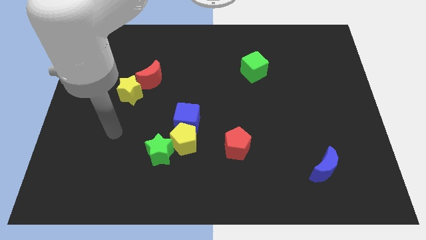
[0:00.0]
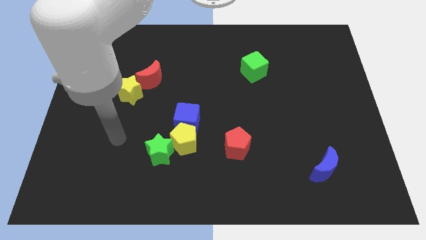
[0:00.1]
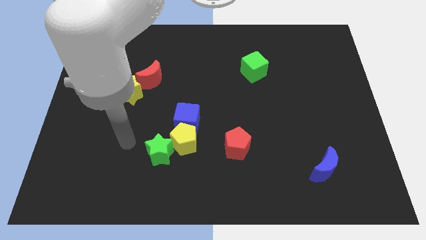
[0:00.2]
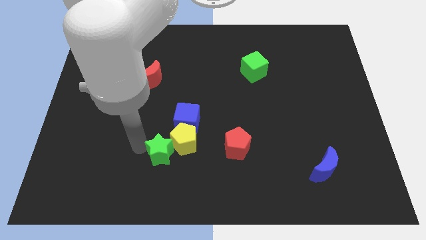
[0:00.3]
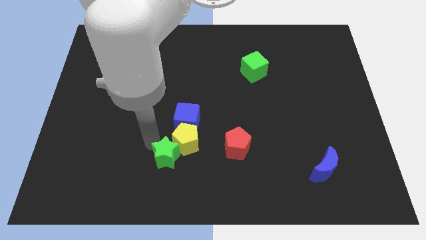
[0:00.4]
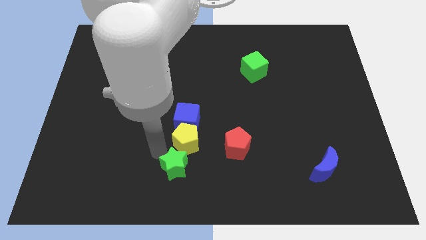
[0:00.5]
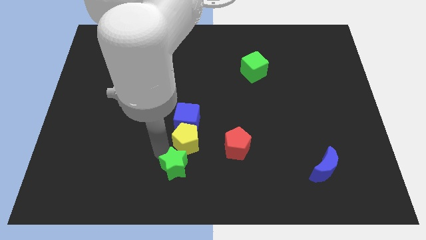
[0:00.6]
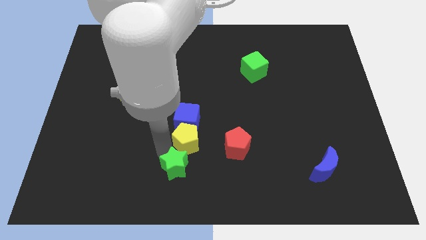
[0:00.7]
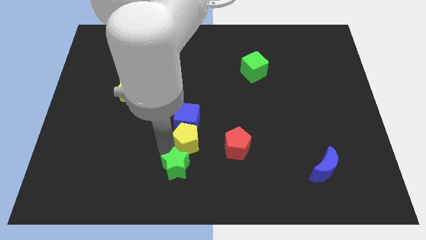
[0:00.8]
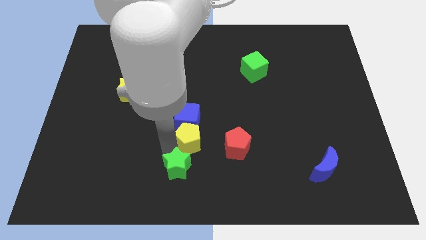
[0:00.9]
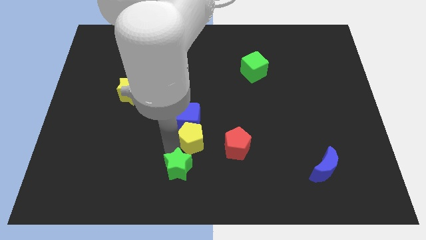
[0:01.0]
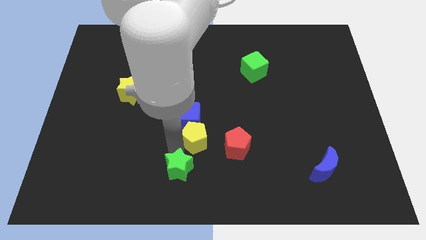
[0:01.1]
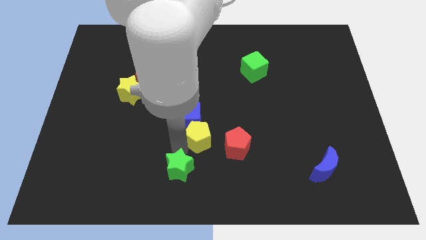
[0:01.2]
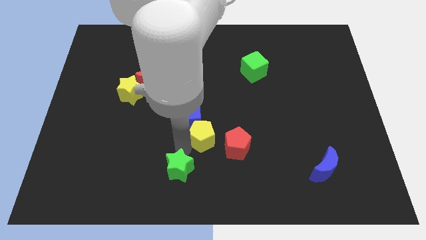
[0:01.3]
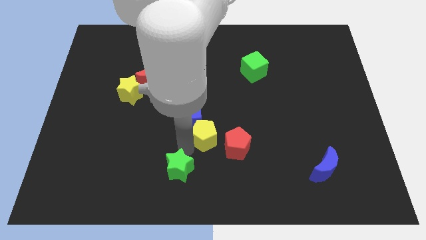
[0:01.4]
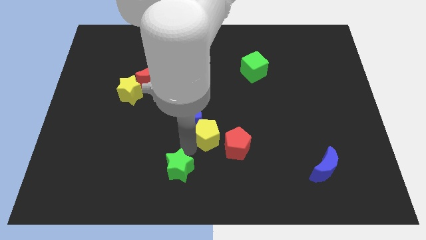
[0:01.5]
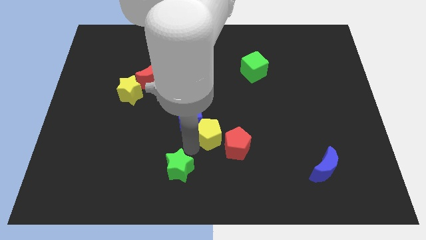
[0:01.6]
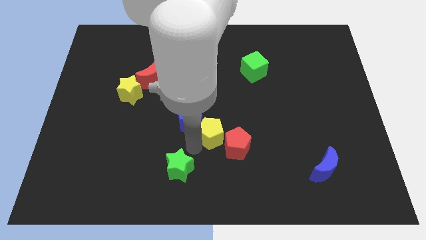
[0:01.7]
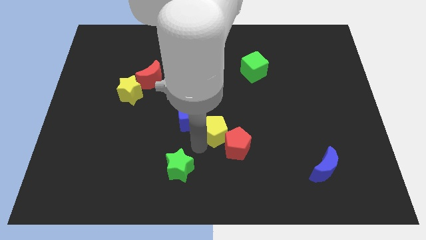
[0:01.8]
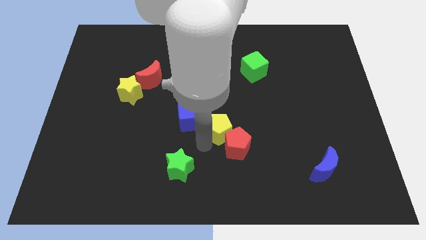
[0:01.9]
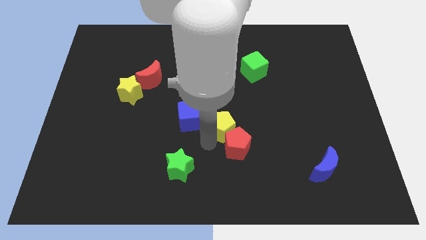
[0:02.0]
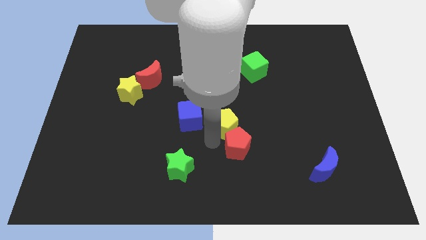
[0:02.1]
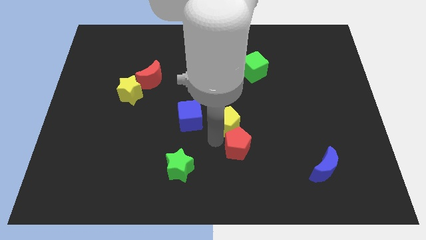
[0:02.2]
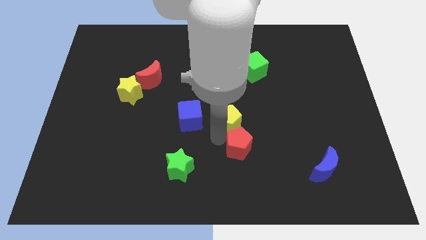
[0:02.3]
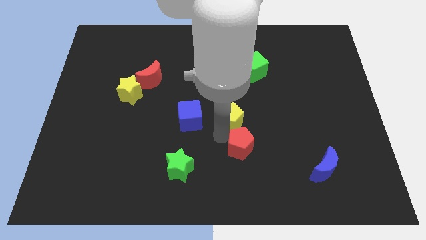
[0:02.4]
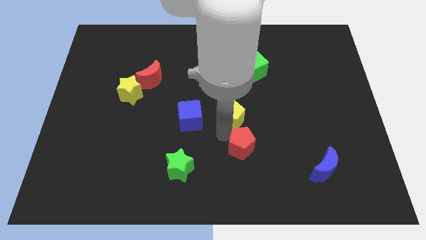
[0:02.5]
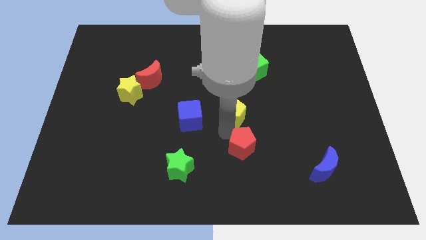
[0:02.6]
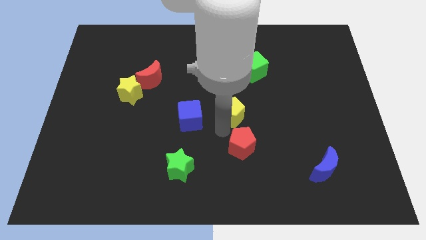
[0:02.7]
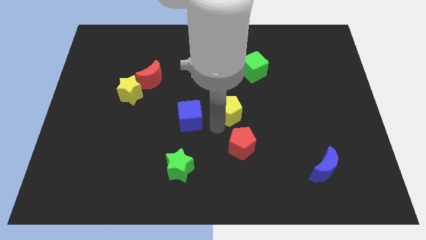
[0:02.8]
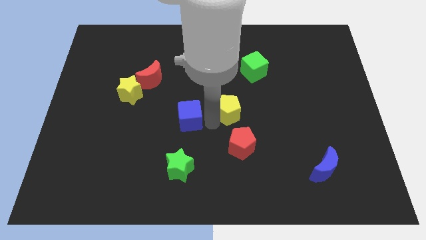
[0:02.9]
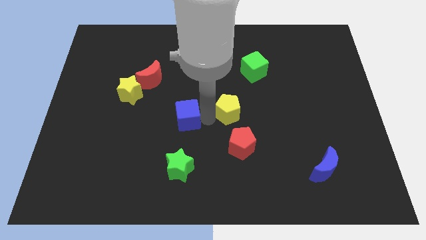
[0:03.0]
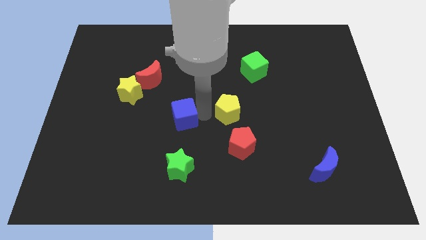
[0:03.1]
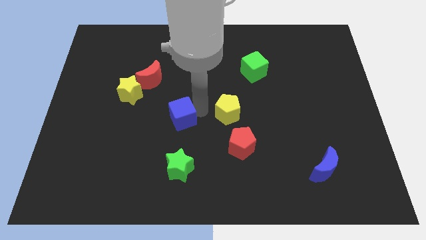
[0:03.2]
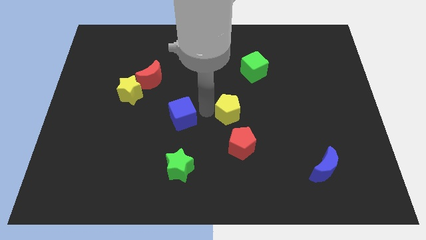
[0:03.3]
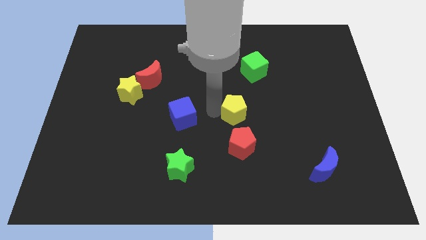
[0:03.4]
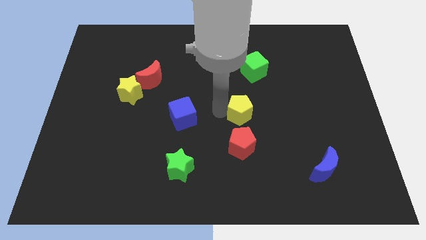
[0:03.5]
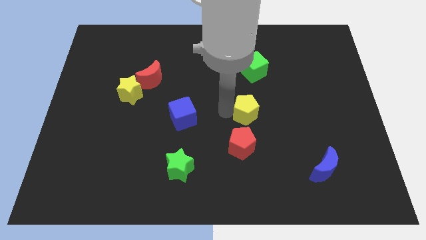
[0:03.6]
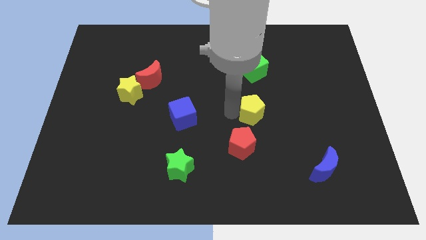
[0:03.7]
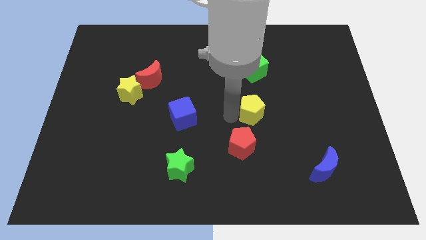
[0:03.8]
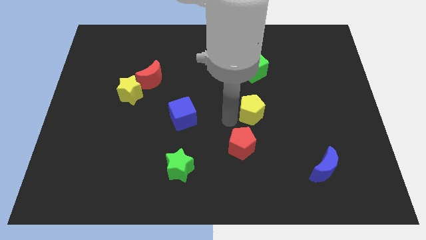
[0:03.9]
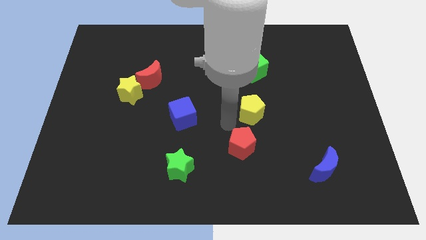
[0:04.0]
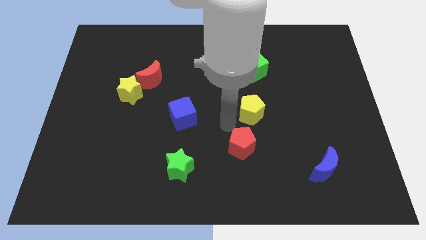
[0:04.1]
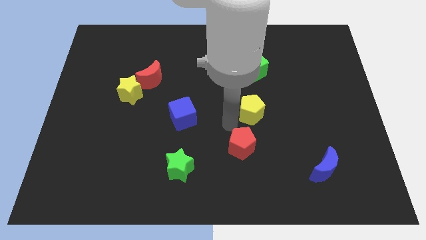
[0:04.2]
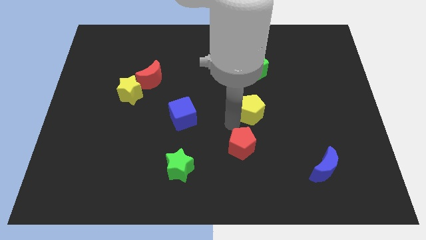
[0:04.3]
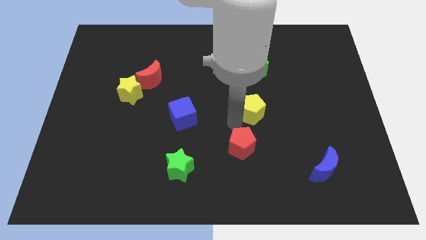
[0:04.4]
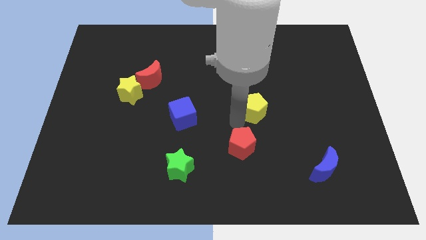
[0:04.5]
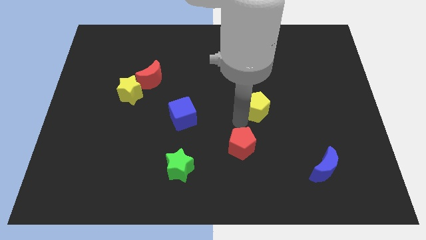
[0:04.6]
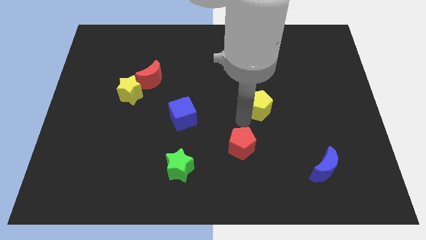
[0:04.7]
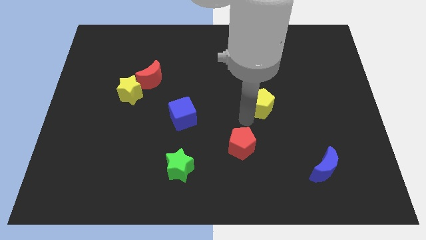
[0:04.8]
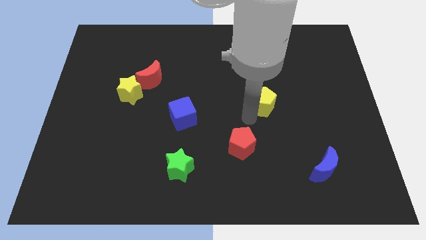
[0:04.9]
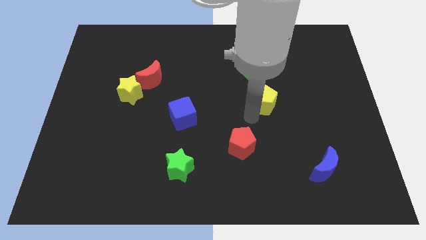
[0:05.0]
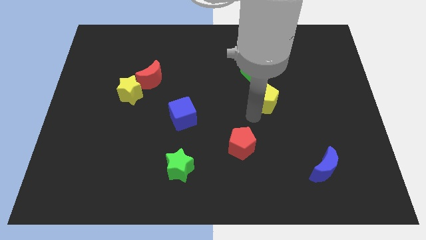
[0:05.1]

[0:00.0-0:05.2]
push the yellow pentagon upwards and then to the right

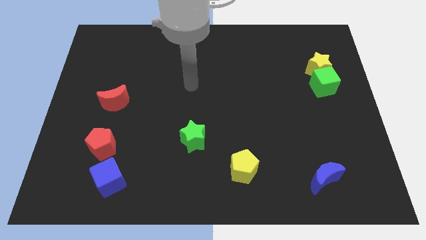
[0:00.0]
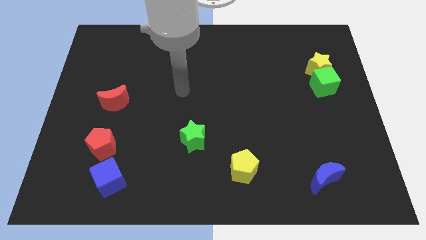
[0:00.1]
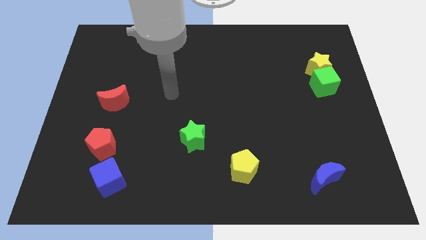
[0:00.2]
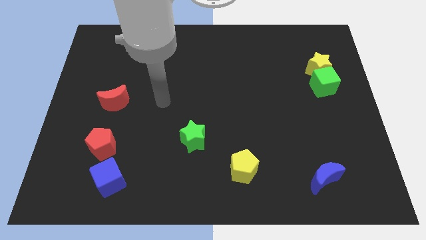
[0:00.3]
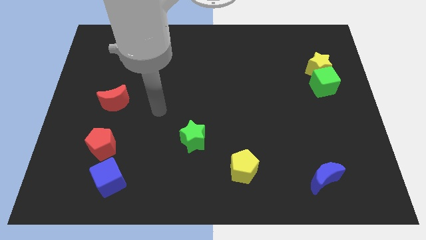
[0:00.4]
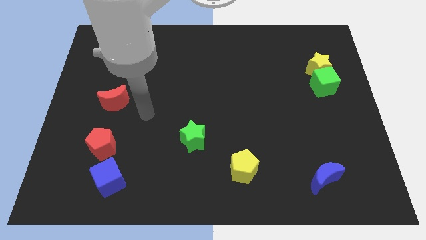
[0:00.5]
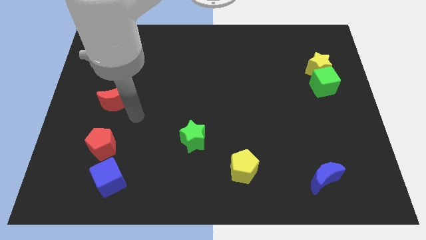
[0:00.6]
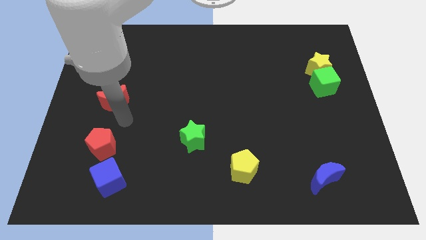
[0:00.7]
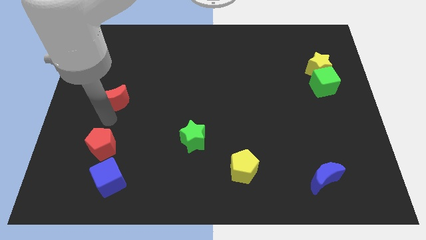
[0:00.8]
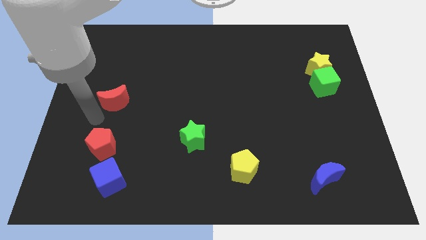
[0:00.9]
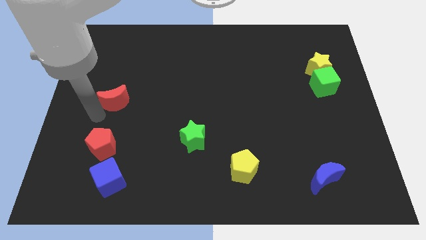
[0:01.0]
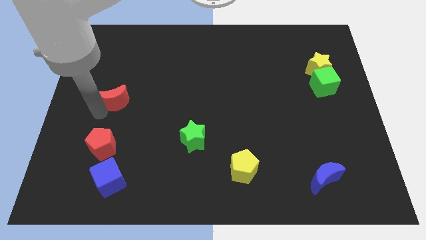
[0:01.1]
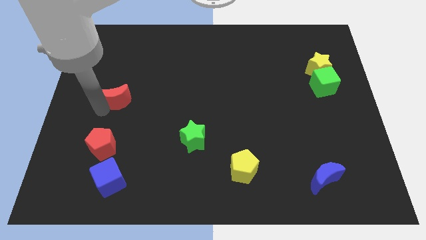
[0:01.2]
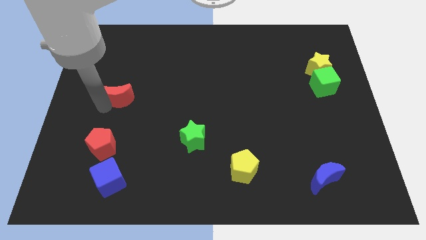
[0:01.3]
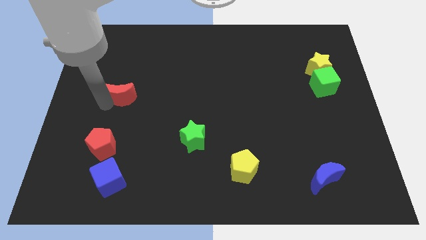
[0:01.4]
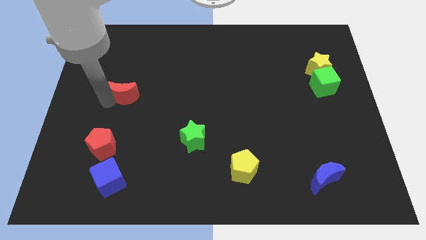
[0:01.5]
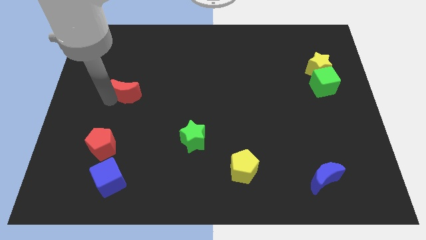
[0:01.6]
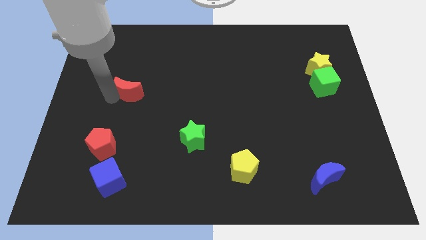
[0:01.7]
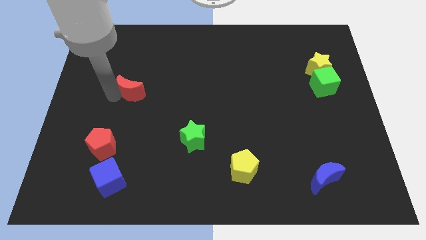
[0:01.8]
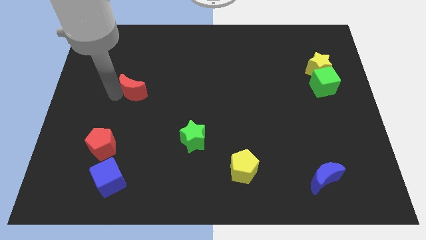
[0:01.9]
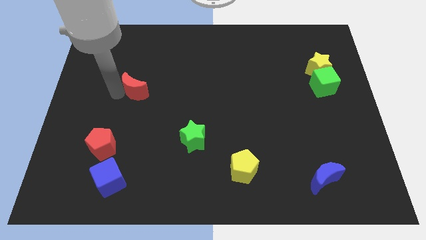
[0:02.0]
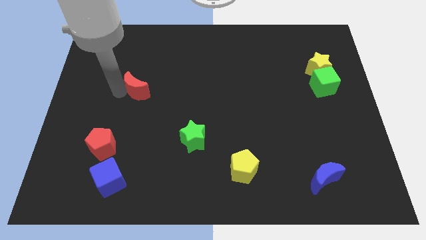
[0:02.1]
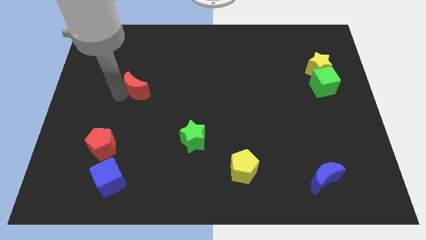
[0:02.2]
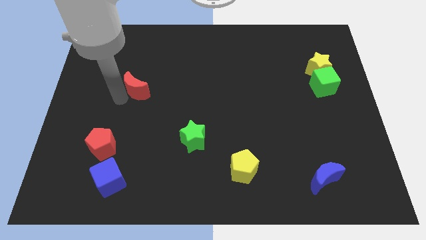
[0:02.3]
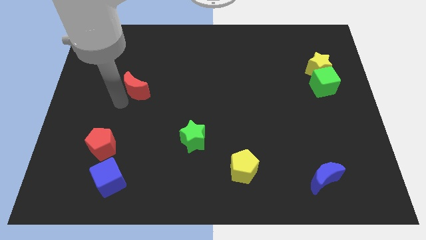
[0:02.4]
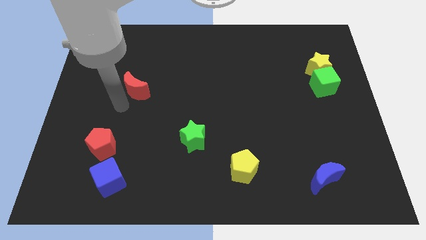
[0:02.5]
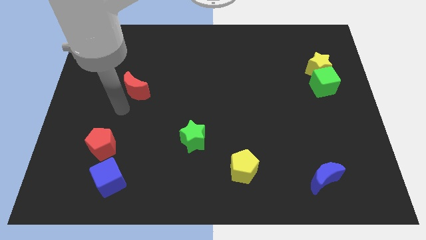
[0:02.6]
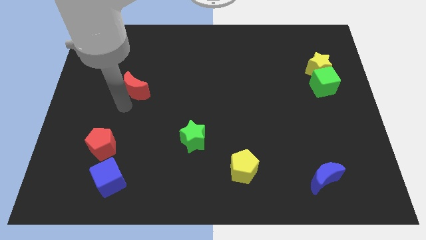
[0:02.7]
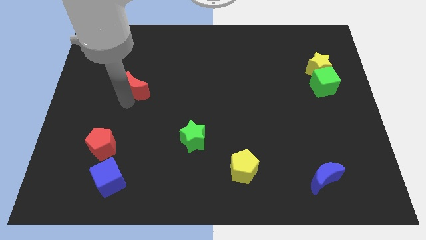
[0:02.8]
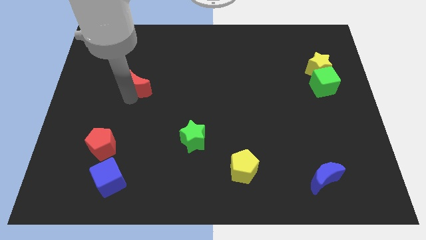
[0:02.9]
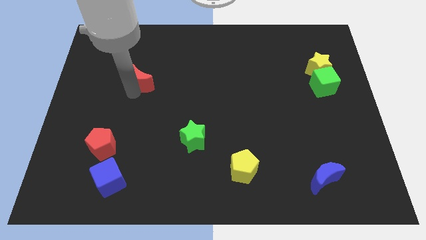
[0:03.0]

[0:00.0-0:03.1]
move the red moon up and right diagonally a bit
